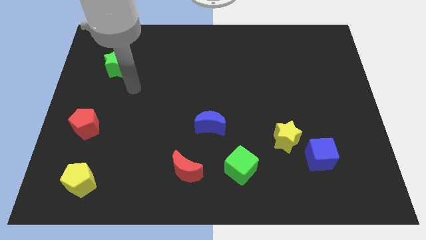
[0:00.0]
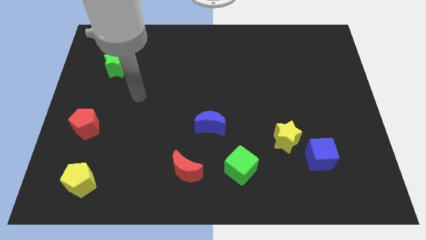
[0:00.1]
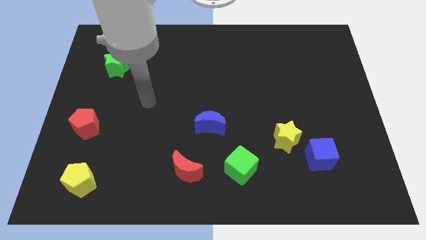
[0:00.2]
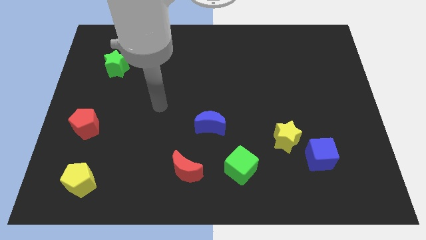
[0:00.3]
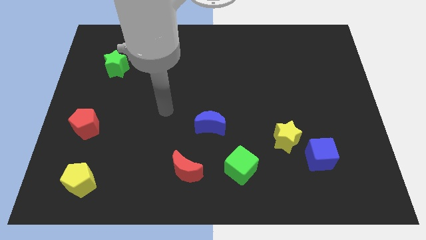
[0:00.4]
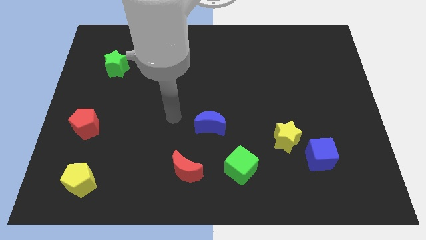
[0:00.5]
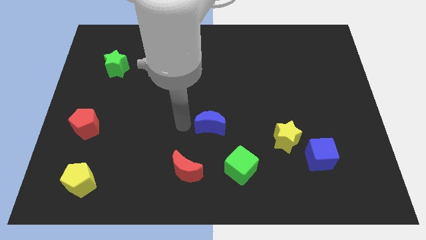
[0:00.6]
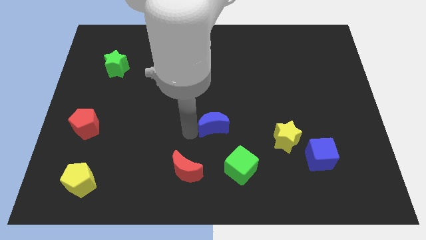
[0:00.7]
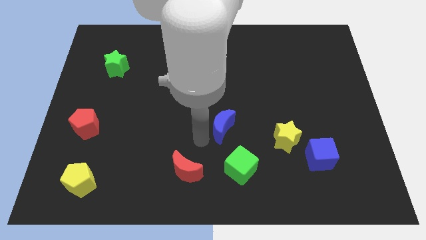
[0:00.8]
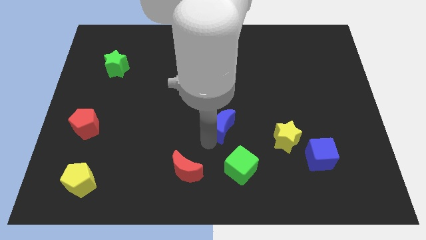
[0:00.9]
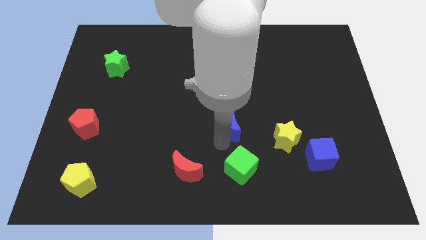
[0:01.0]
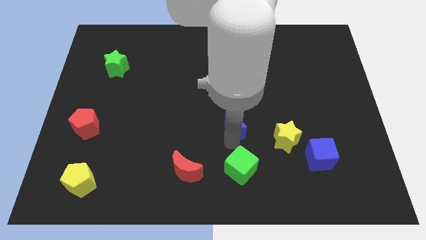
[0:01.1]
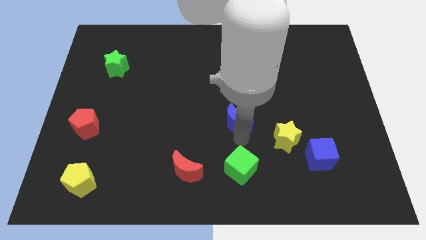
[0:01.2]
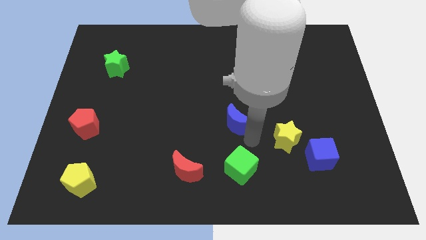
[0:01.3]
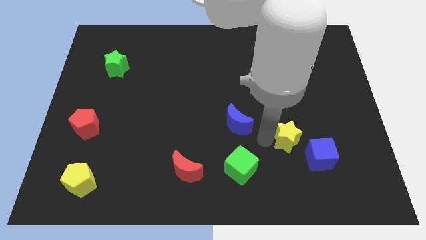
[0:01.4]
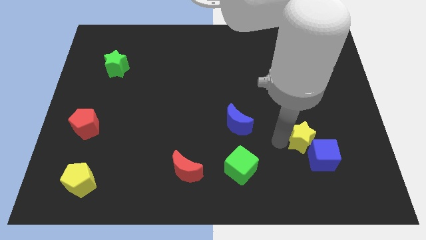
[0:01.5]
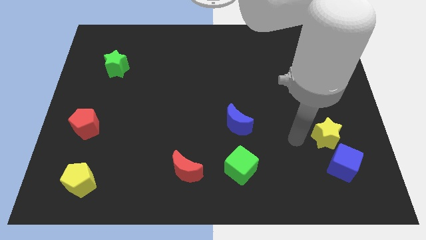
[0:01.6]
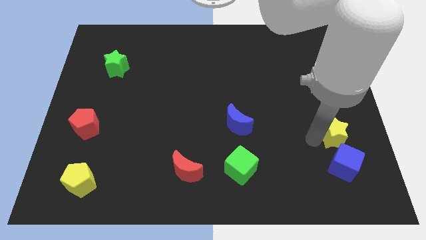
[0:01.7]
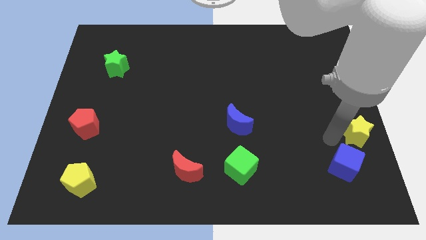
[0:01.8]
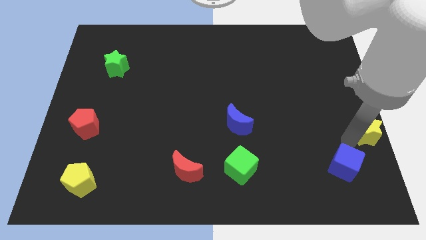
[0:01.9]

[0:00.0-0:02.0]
pull the blue cube apart from the yellow star

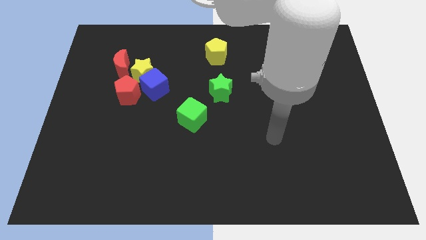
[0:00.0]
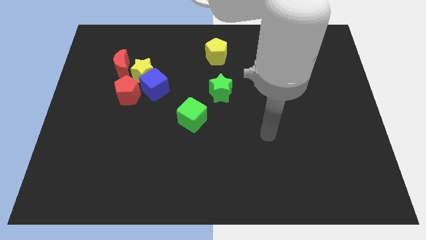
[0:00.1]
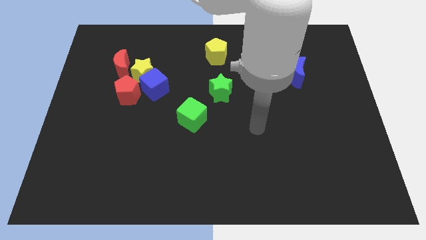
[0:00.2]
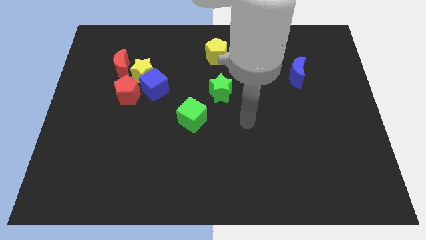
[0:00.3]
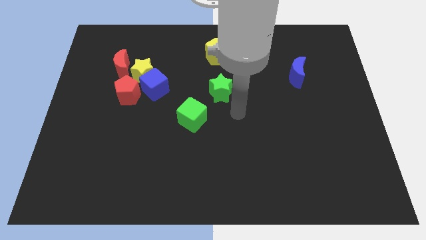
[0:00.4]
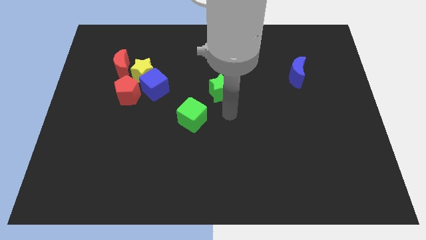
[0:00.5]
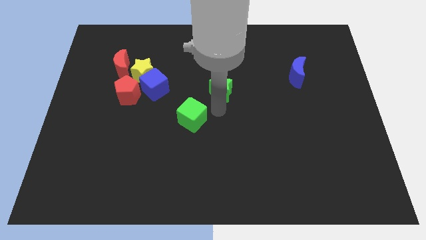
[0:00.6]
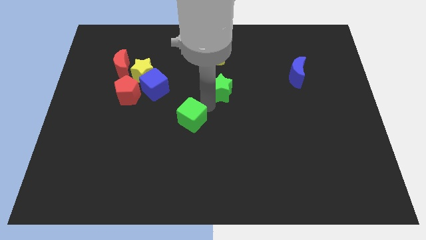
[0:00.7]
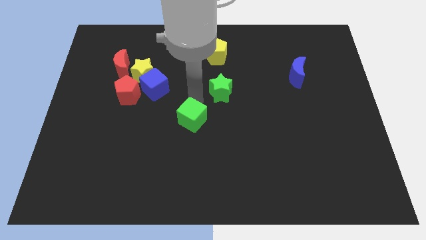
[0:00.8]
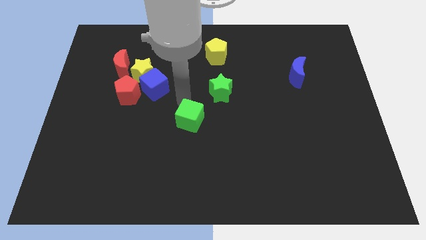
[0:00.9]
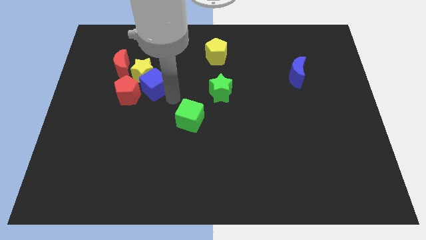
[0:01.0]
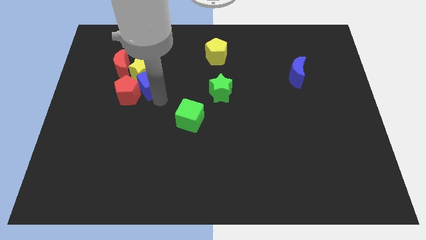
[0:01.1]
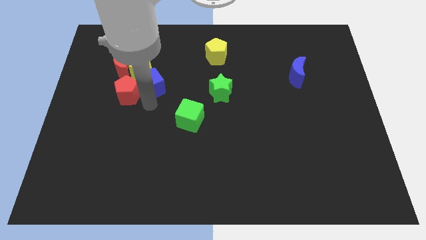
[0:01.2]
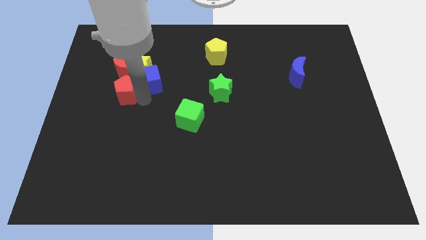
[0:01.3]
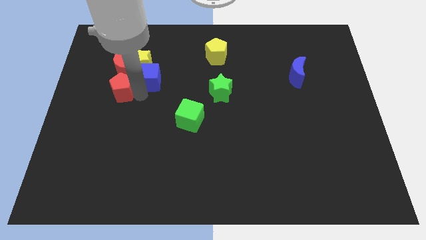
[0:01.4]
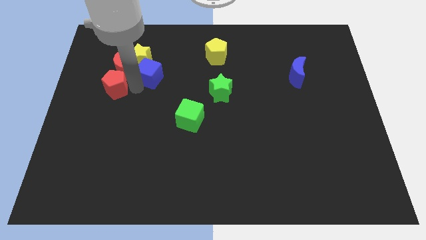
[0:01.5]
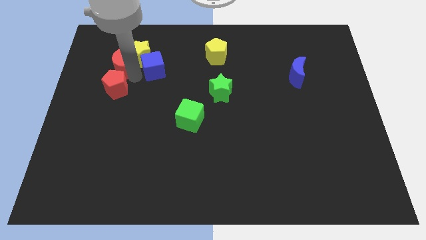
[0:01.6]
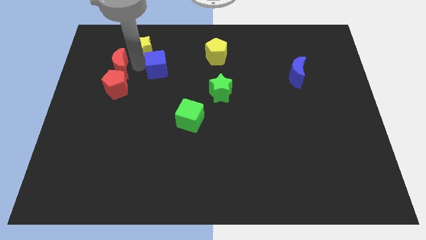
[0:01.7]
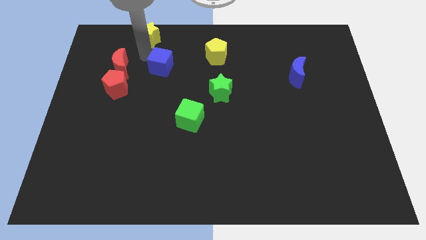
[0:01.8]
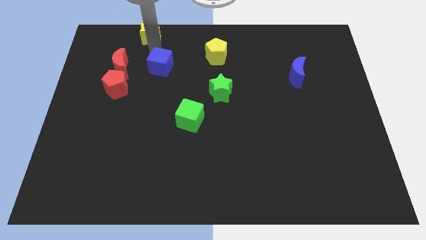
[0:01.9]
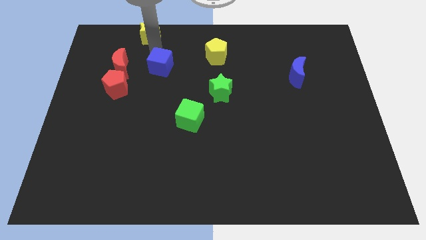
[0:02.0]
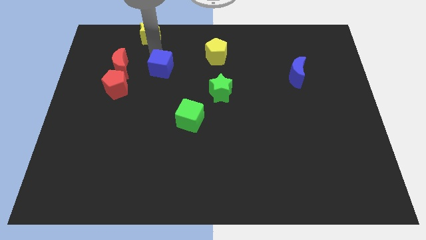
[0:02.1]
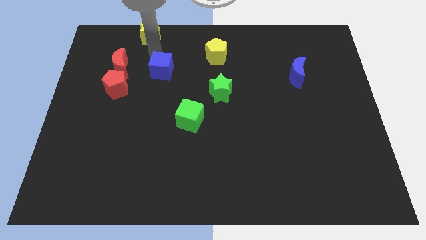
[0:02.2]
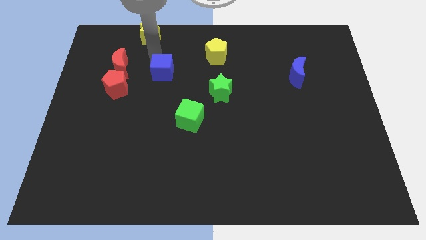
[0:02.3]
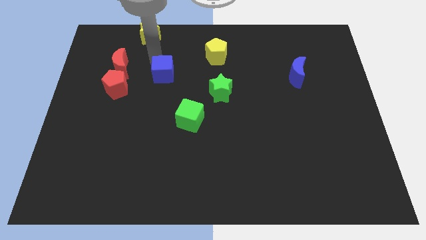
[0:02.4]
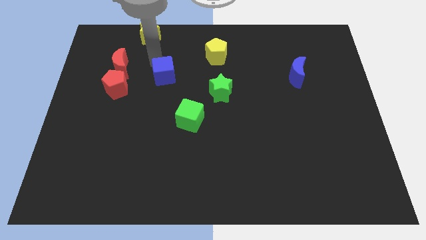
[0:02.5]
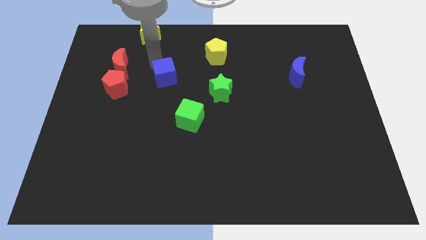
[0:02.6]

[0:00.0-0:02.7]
separate the blue cube from the yellow star and red pentagon

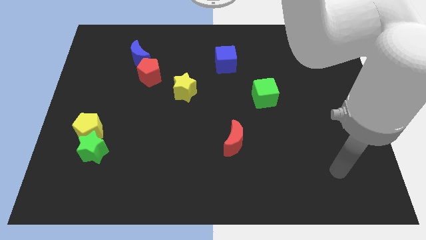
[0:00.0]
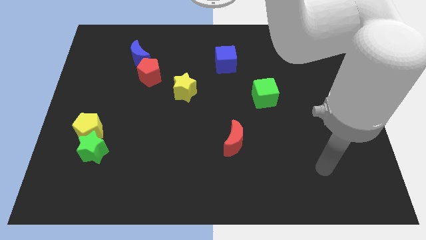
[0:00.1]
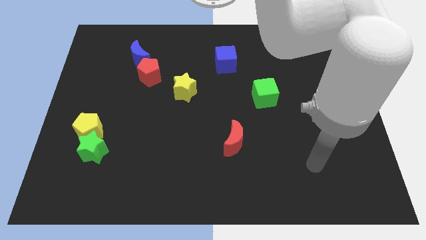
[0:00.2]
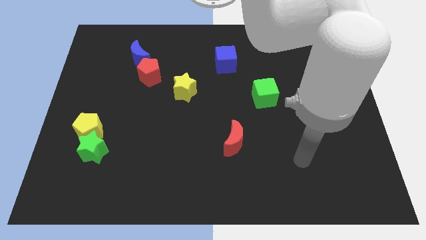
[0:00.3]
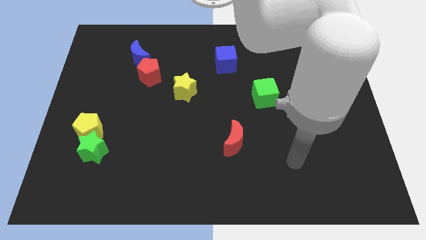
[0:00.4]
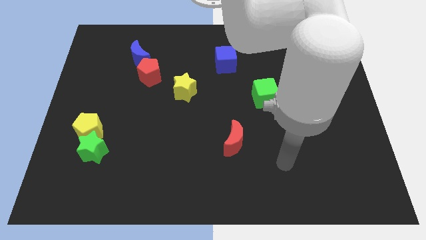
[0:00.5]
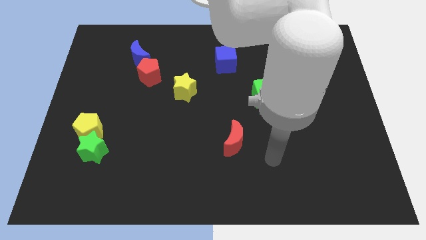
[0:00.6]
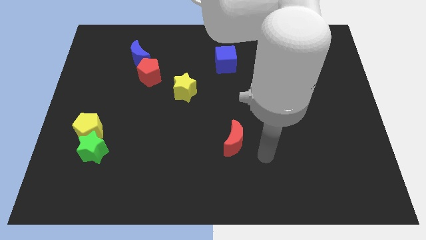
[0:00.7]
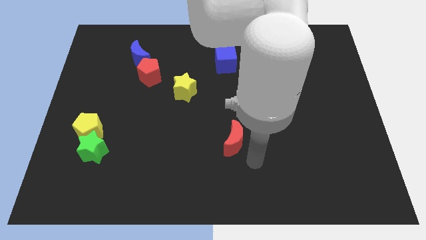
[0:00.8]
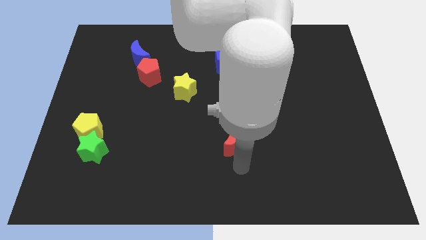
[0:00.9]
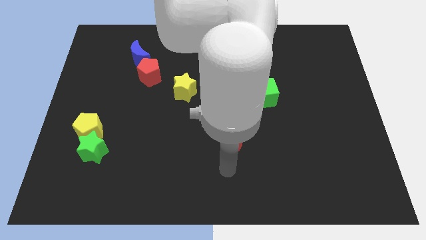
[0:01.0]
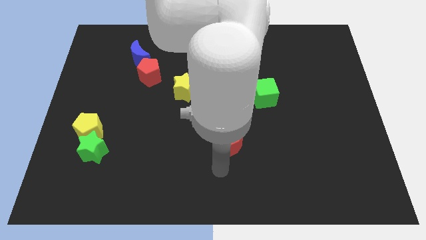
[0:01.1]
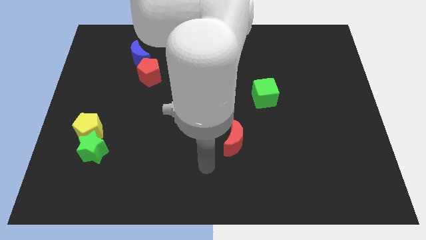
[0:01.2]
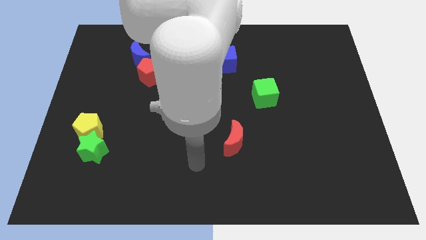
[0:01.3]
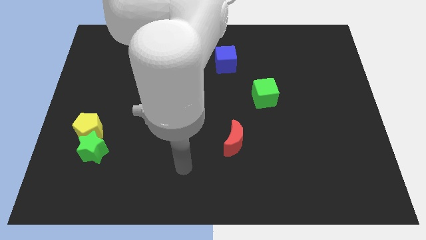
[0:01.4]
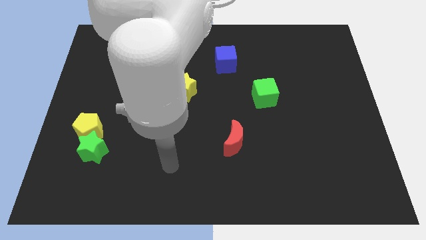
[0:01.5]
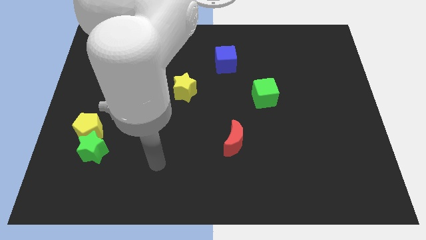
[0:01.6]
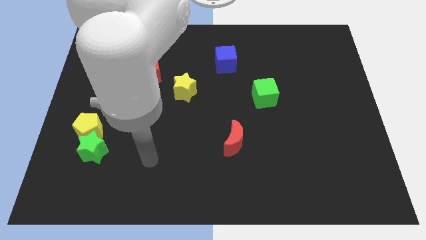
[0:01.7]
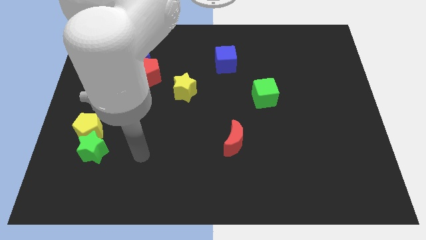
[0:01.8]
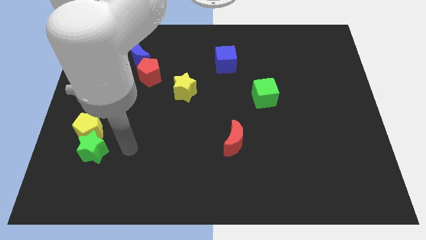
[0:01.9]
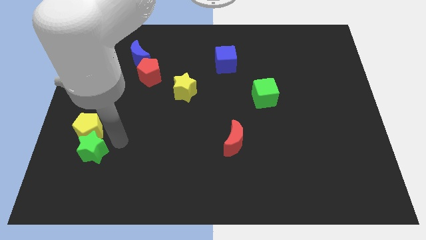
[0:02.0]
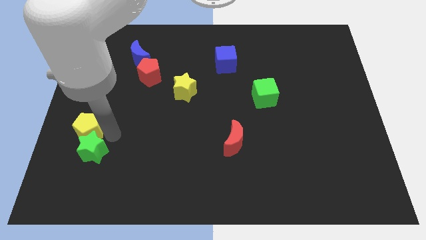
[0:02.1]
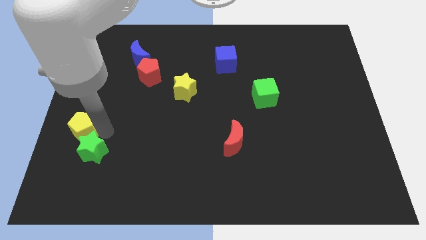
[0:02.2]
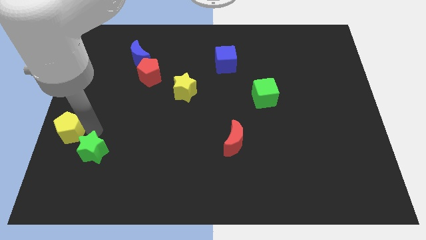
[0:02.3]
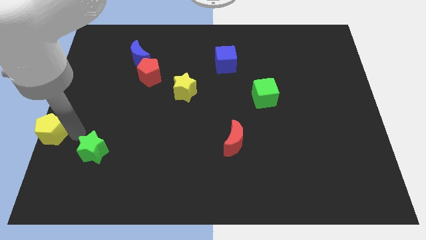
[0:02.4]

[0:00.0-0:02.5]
move the green star away from the yellow pentagon

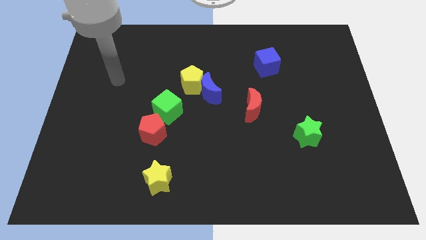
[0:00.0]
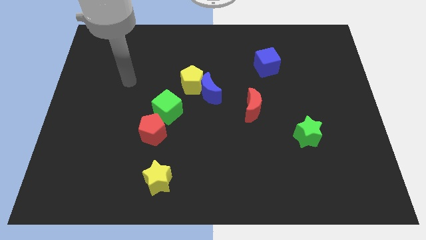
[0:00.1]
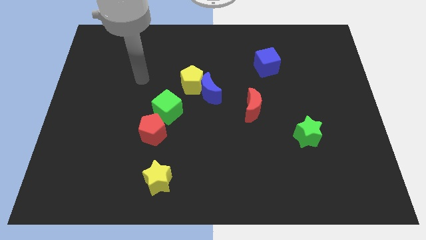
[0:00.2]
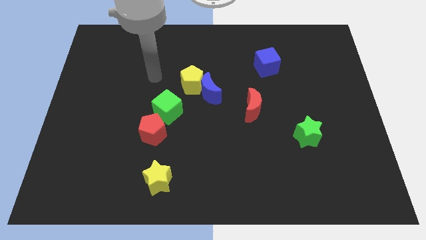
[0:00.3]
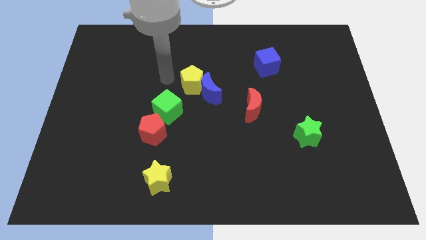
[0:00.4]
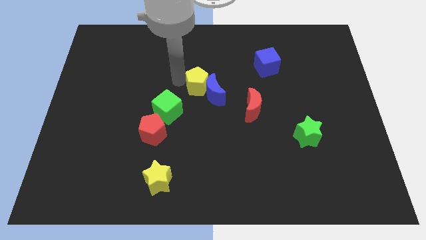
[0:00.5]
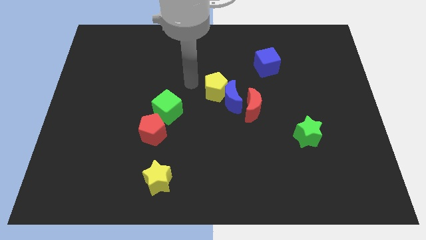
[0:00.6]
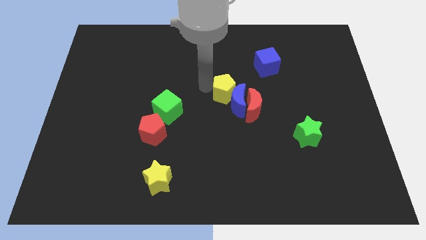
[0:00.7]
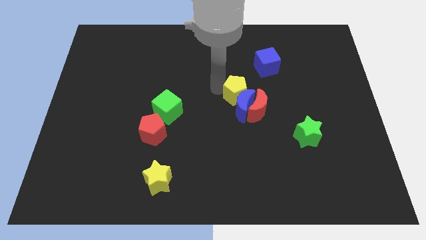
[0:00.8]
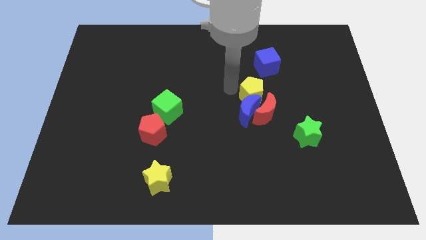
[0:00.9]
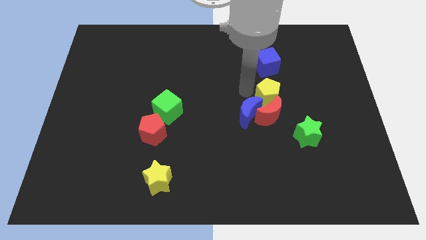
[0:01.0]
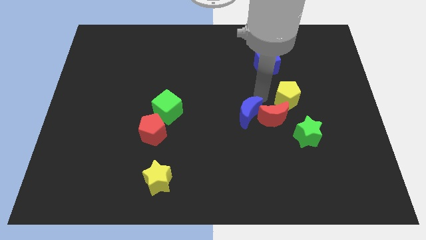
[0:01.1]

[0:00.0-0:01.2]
pull the blue moon apart from the yellow pentagon

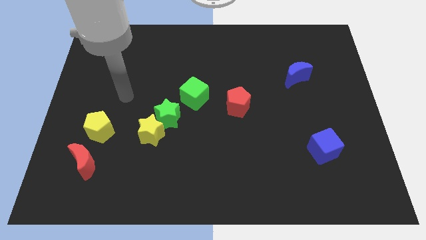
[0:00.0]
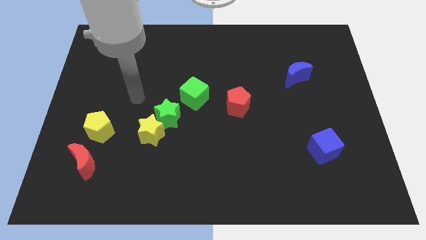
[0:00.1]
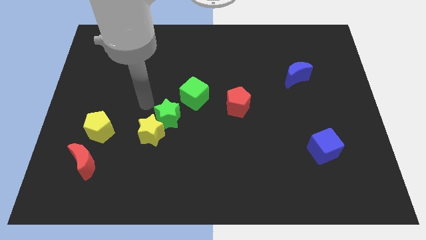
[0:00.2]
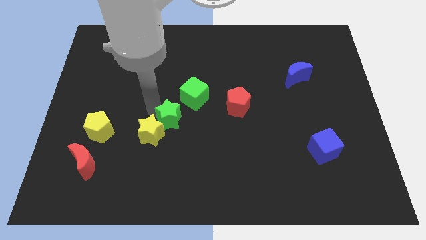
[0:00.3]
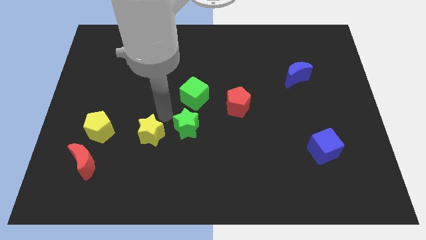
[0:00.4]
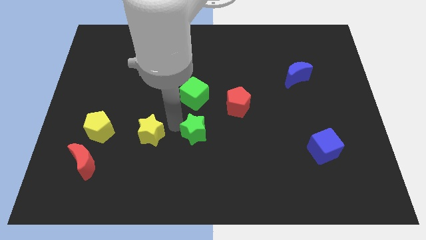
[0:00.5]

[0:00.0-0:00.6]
pull the yellow star apart from the green star

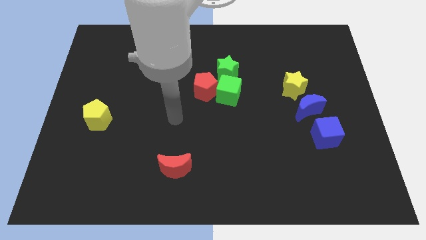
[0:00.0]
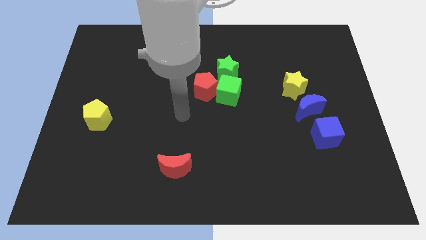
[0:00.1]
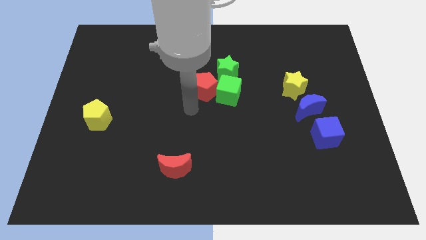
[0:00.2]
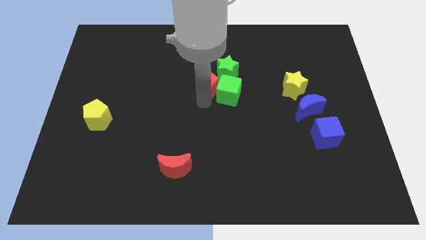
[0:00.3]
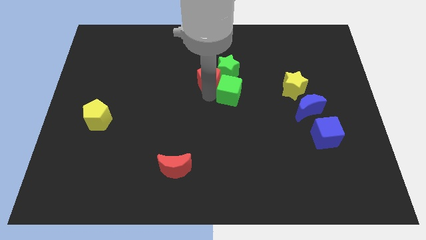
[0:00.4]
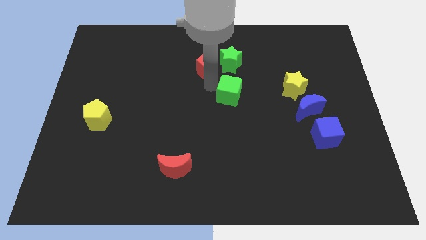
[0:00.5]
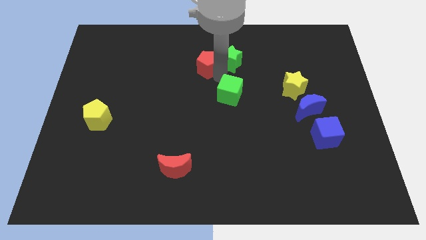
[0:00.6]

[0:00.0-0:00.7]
move the green cube away from the red pentagon and green star
